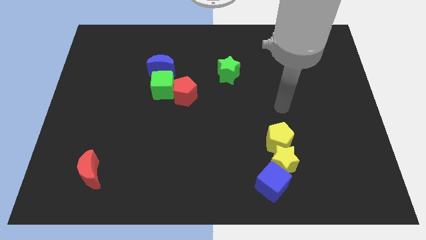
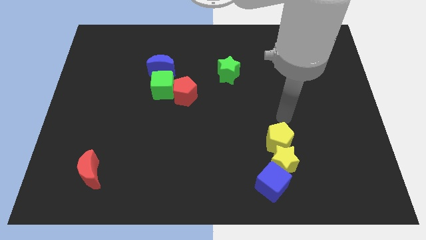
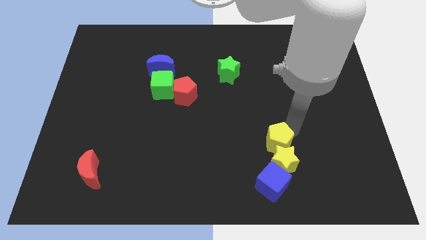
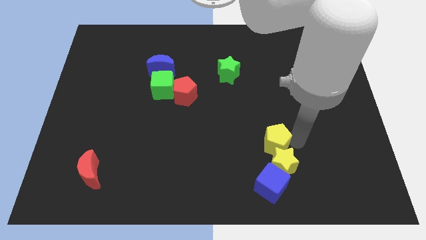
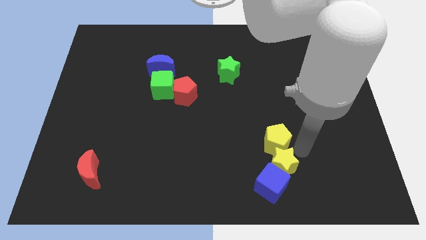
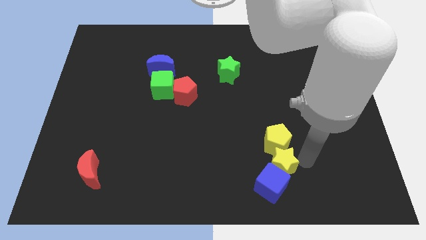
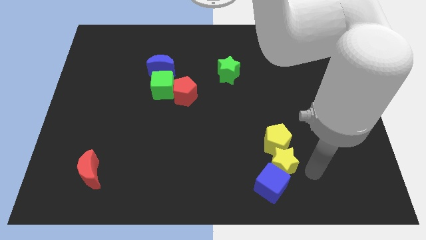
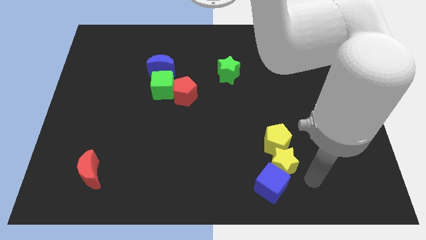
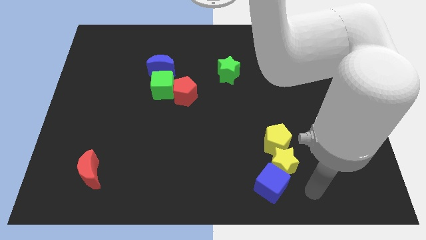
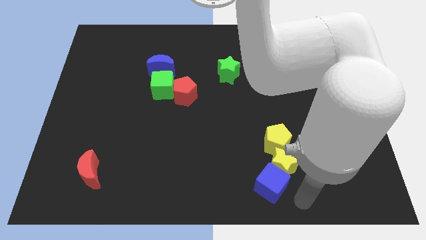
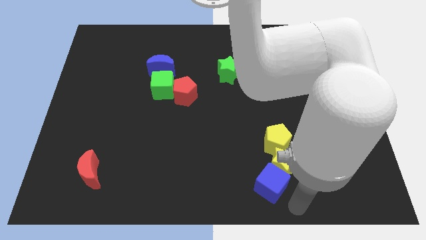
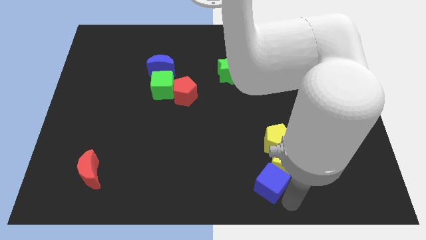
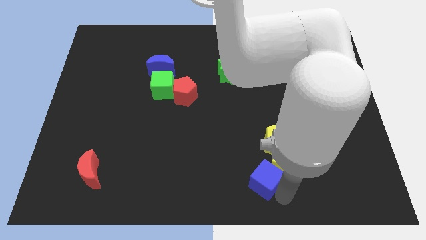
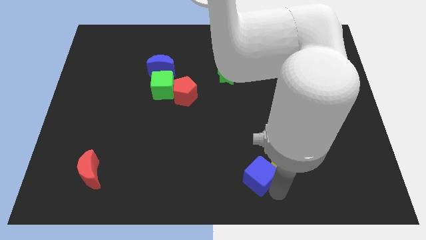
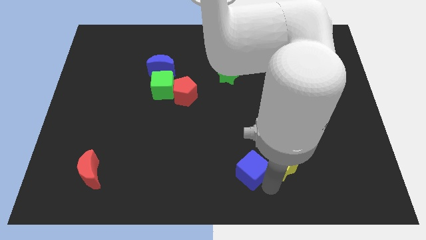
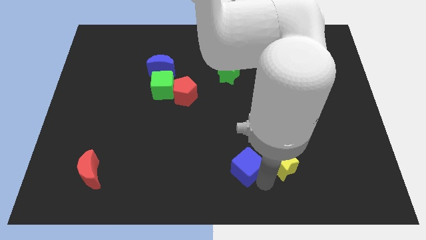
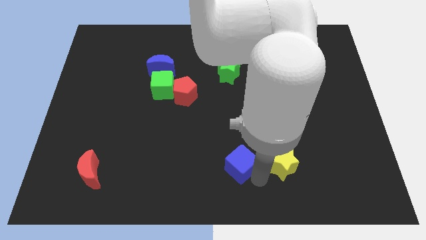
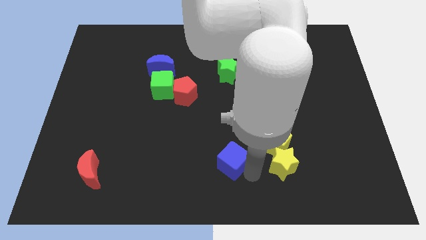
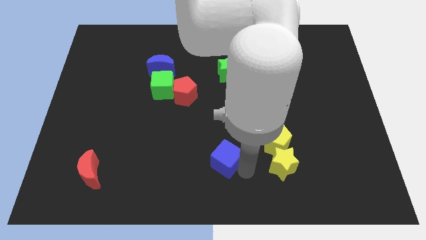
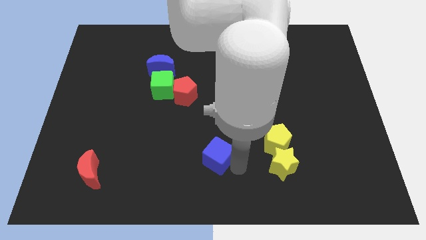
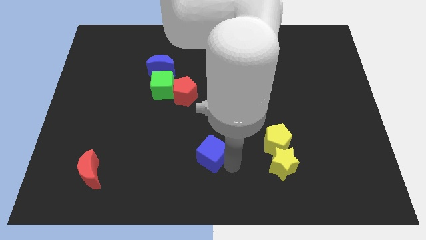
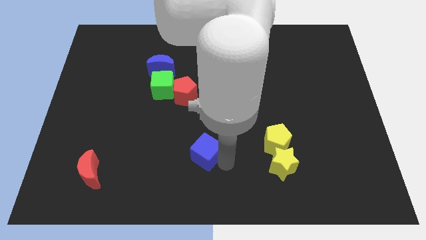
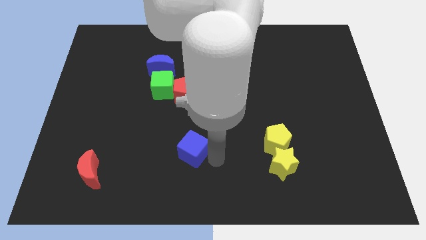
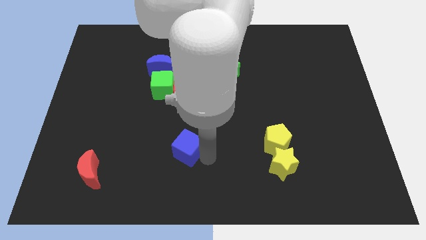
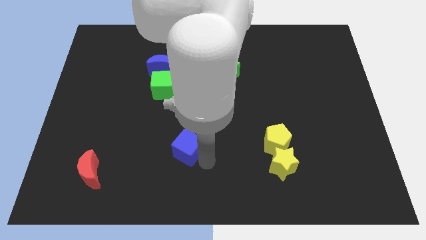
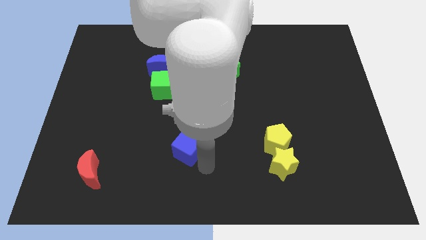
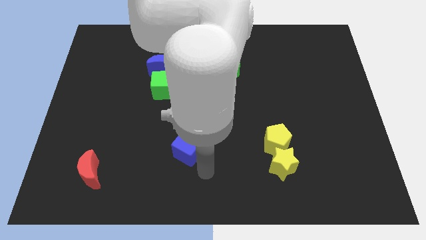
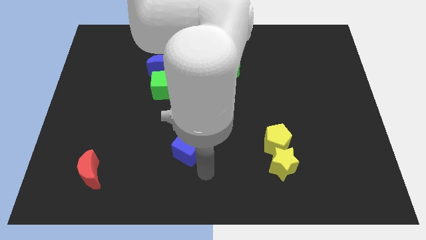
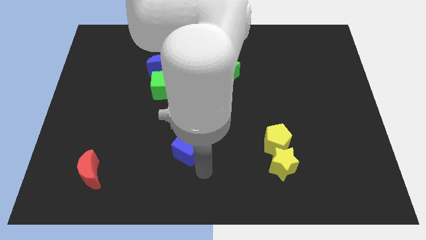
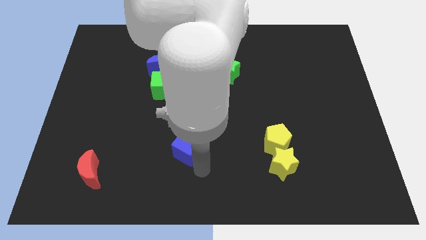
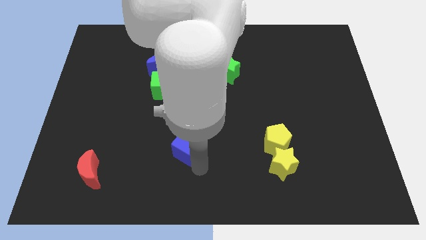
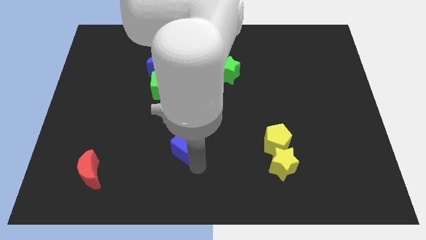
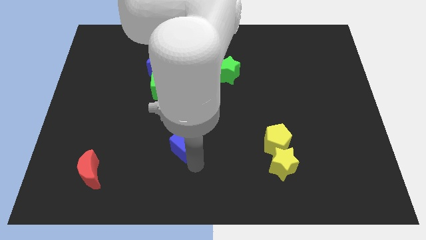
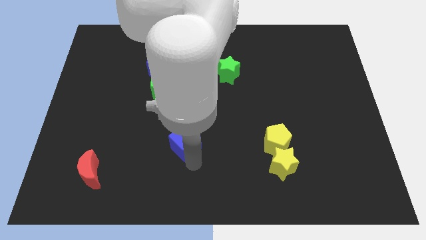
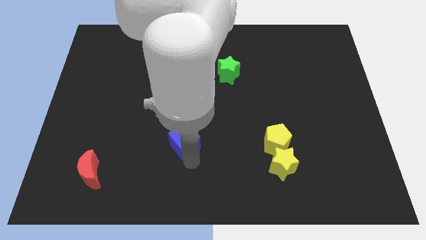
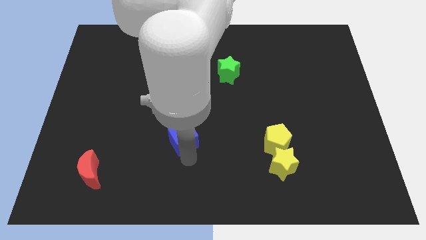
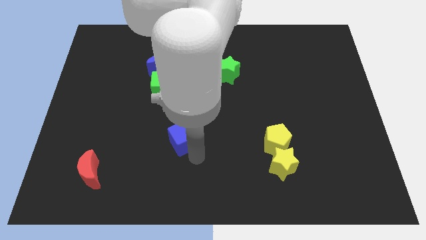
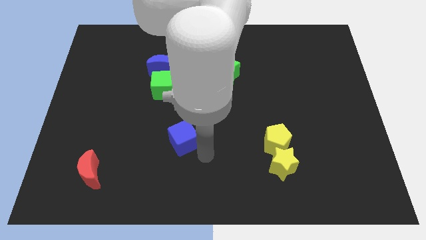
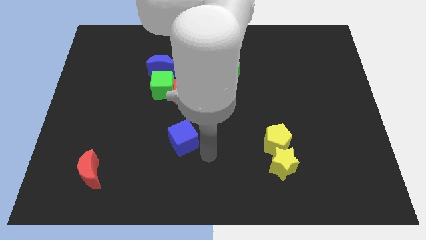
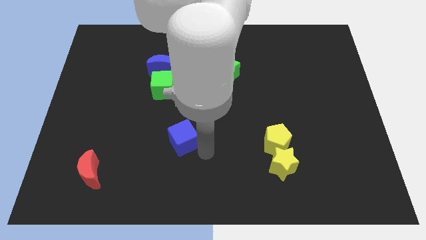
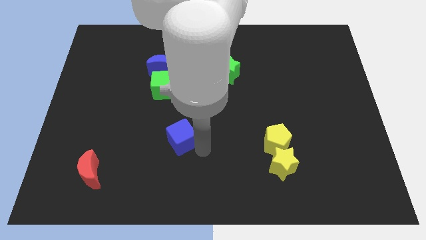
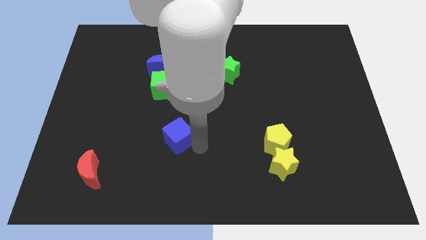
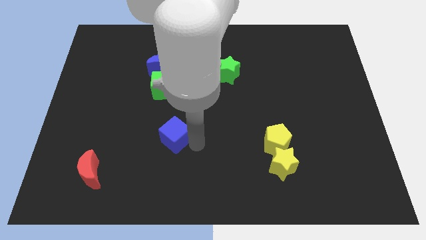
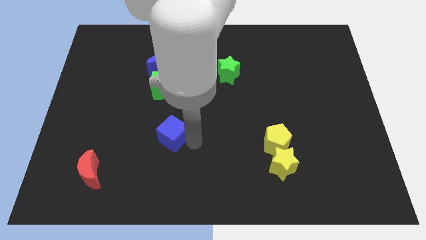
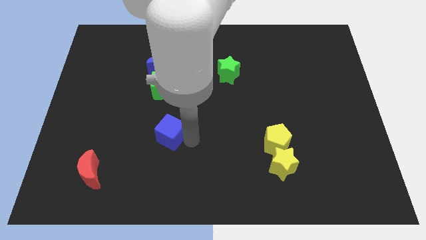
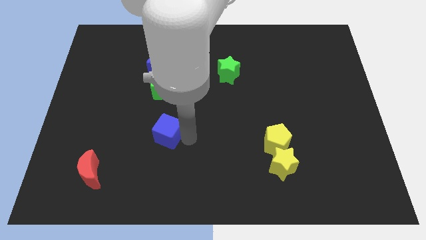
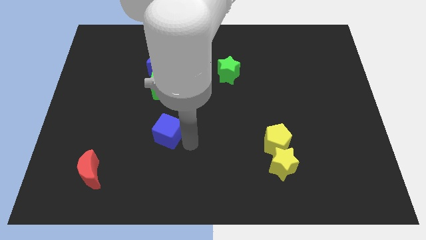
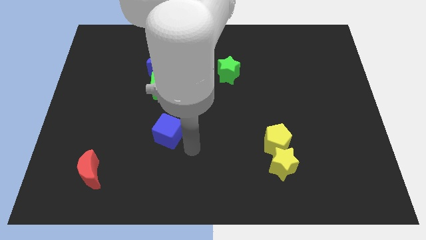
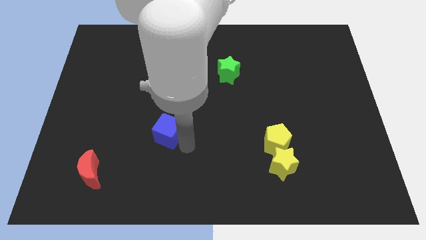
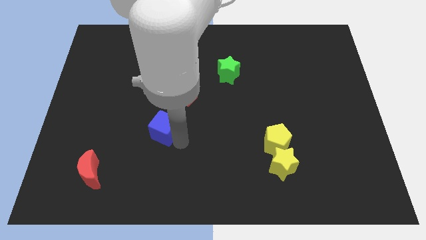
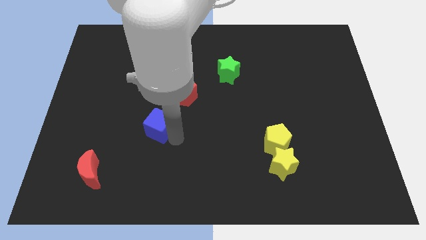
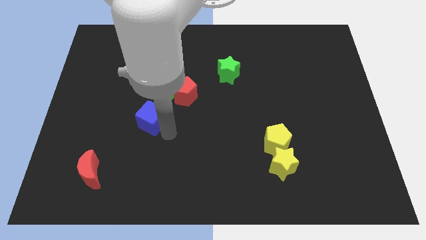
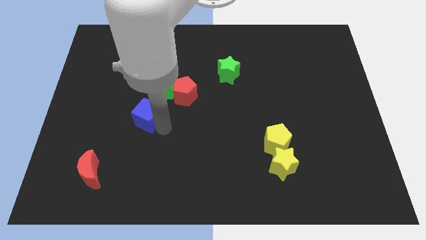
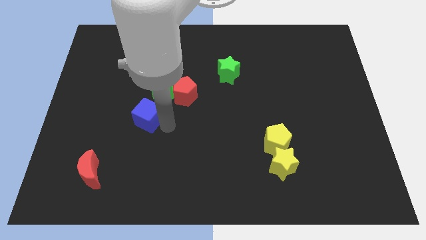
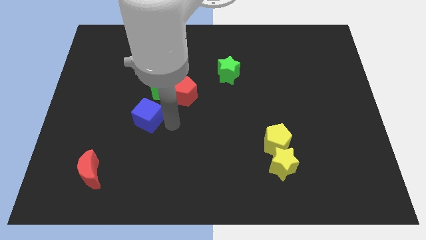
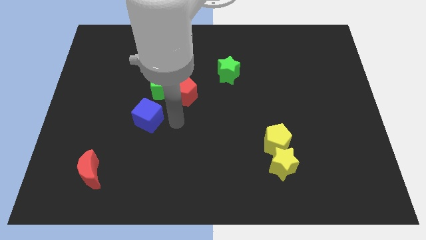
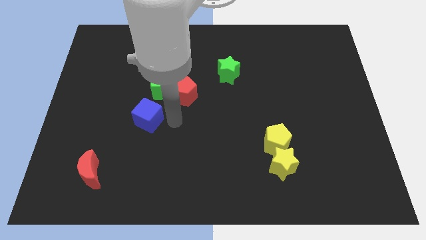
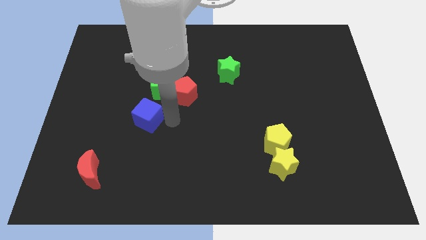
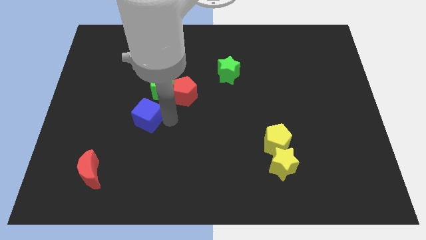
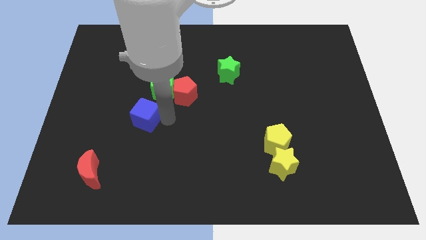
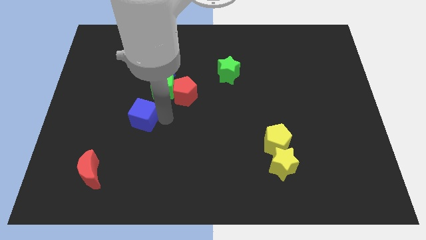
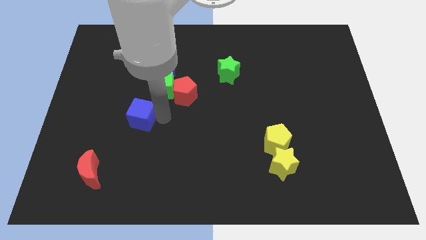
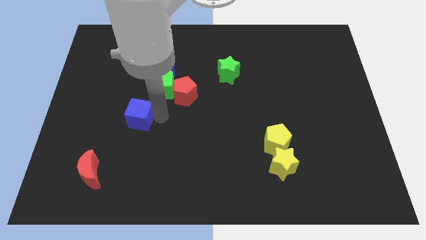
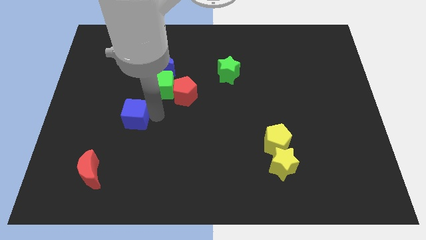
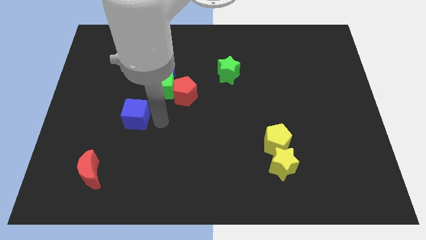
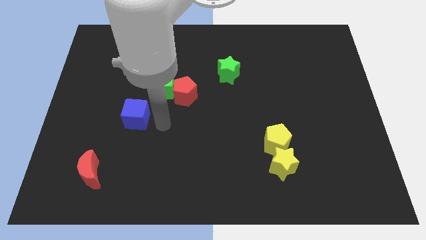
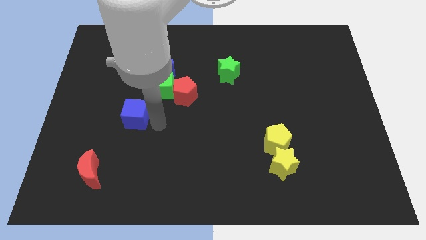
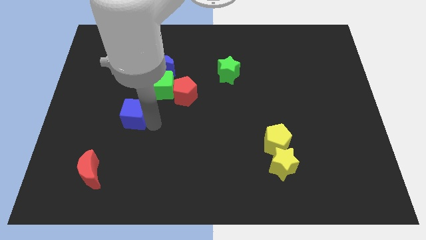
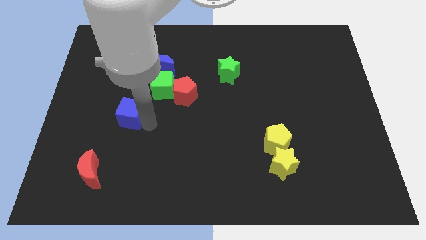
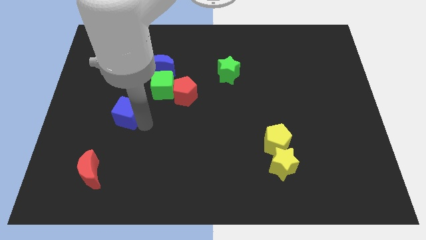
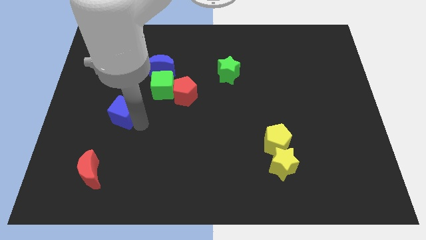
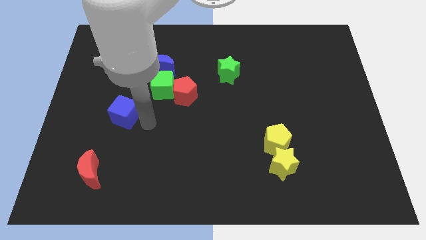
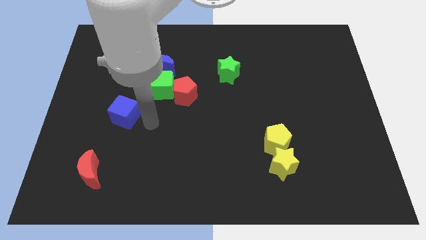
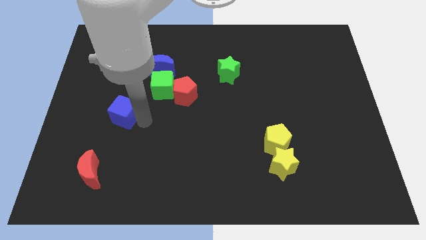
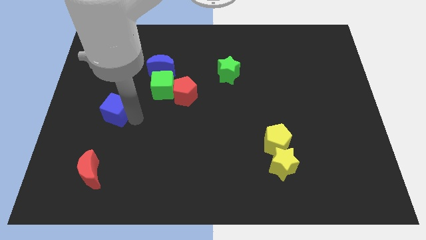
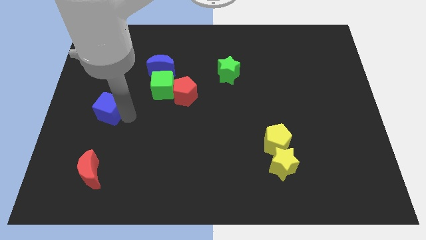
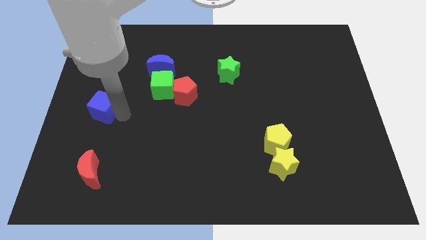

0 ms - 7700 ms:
move the blue cube to the center left
